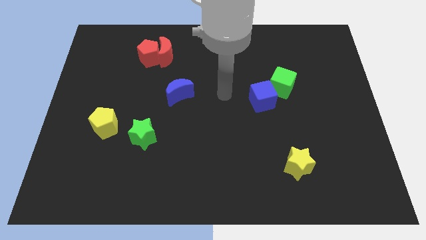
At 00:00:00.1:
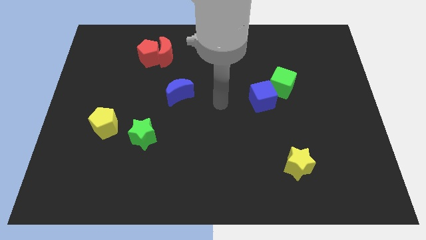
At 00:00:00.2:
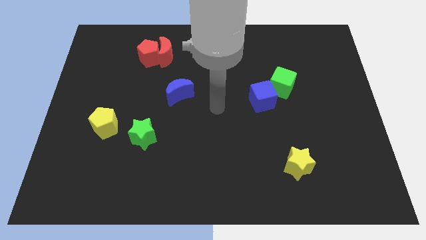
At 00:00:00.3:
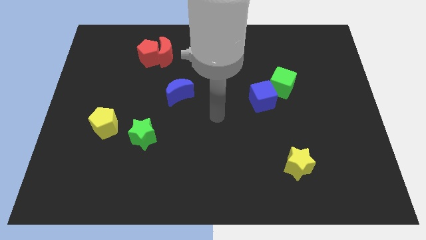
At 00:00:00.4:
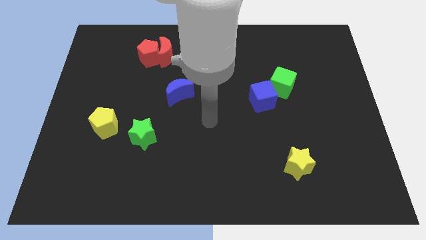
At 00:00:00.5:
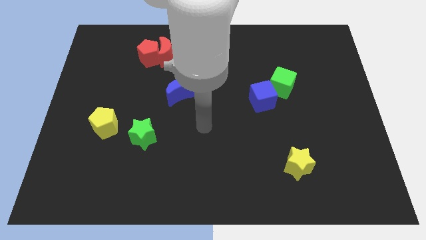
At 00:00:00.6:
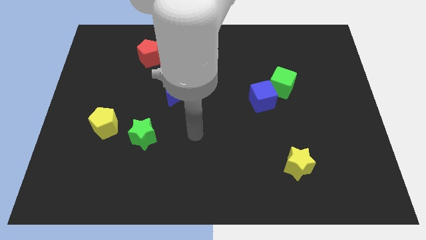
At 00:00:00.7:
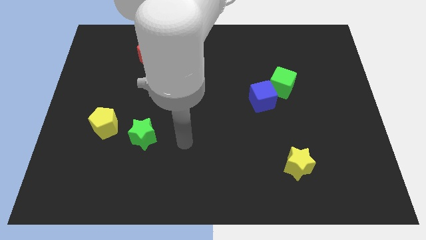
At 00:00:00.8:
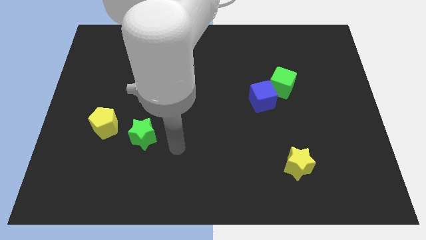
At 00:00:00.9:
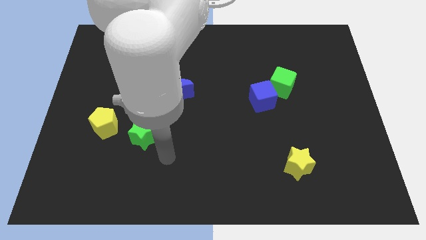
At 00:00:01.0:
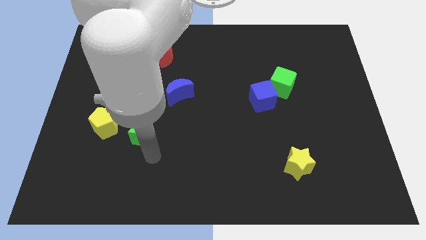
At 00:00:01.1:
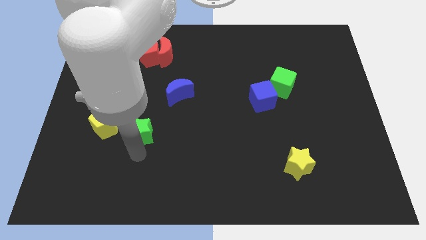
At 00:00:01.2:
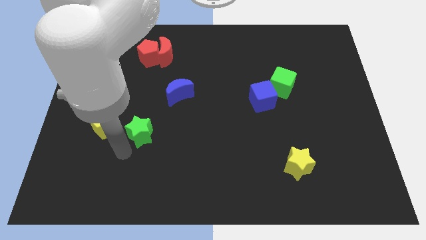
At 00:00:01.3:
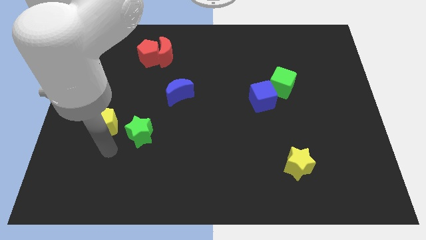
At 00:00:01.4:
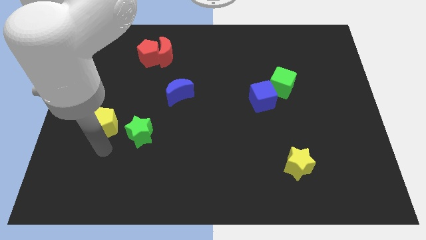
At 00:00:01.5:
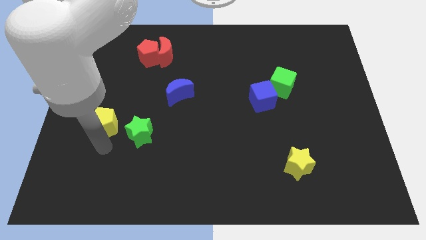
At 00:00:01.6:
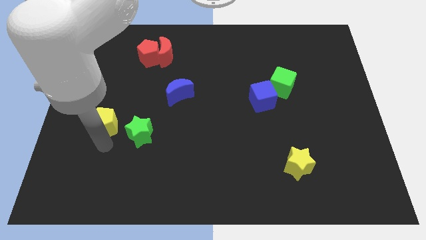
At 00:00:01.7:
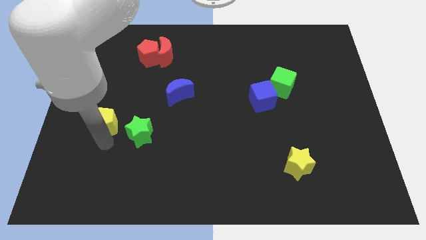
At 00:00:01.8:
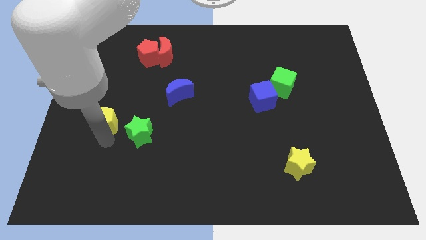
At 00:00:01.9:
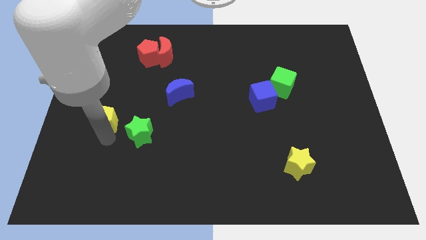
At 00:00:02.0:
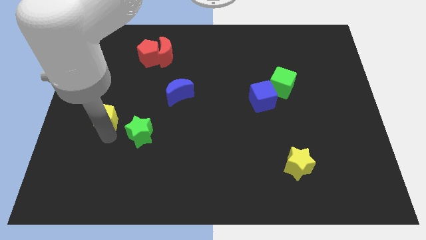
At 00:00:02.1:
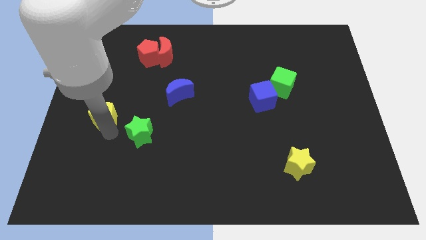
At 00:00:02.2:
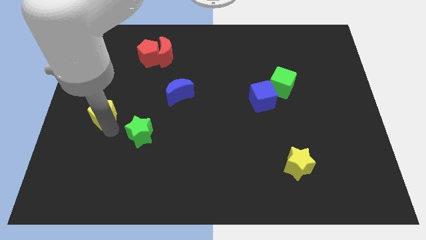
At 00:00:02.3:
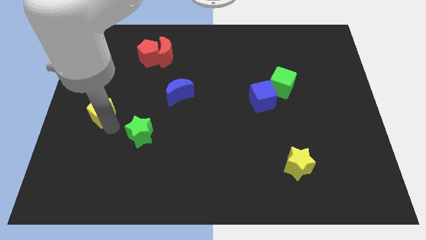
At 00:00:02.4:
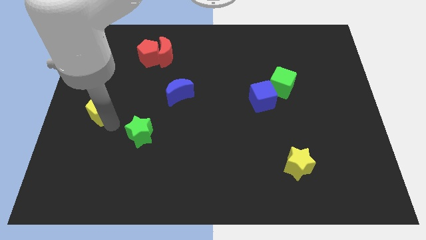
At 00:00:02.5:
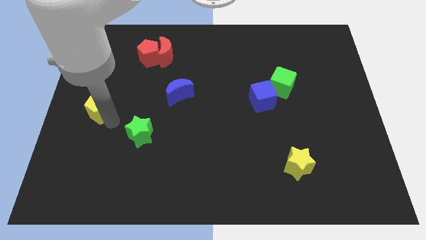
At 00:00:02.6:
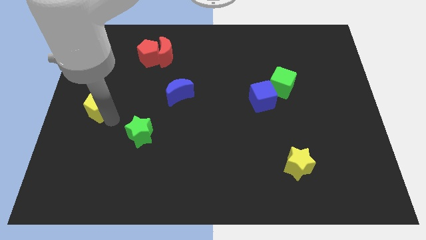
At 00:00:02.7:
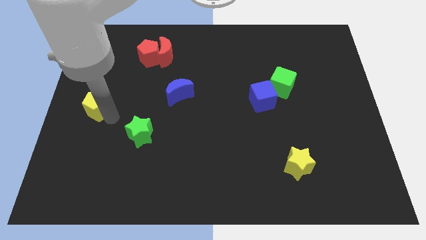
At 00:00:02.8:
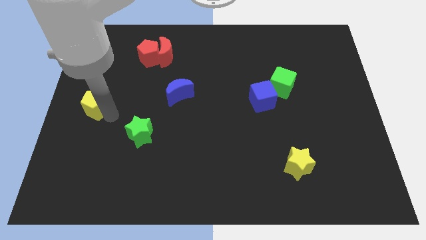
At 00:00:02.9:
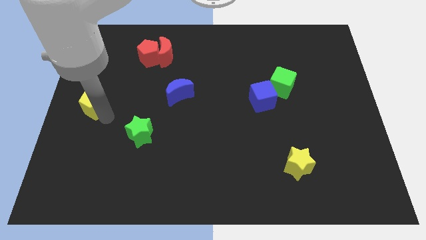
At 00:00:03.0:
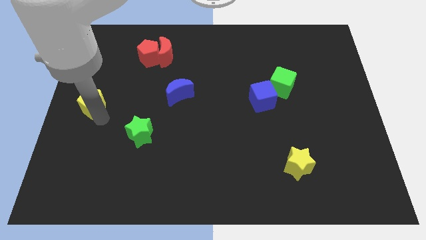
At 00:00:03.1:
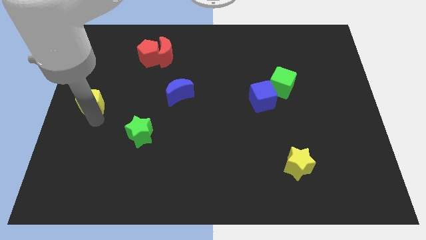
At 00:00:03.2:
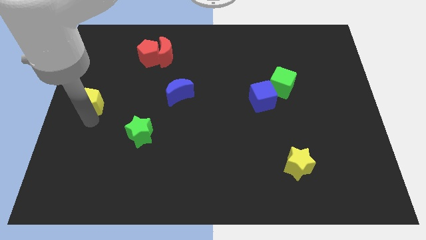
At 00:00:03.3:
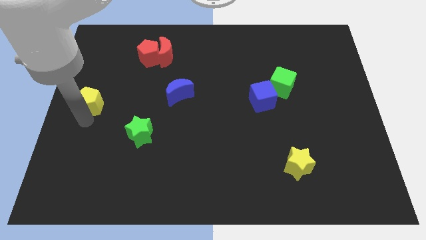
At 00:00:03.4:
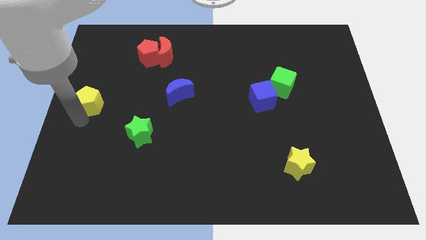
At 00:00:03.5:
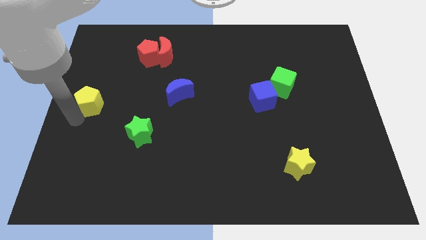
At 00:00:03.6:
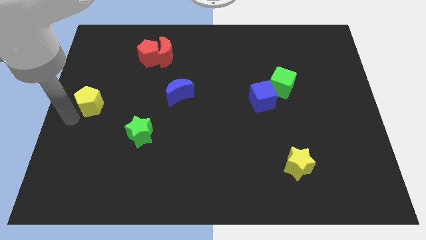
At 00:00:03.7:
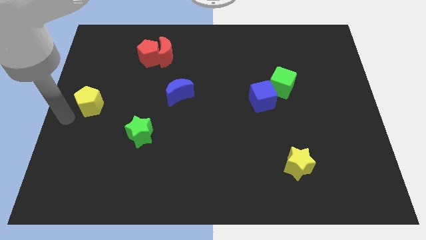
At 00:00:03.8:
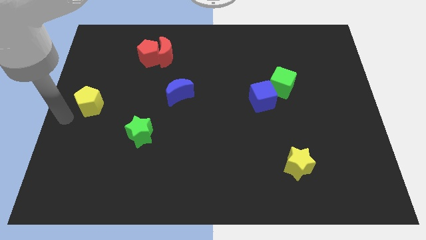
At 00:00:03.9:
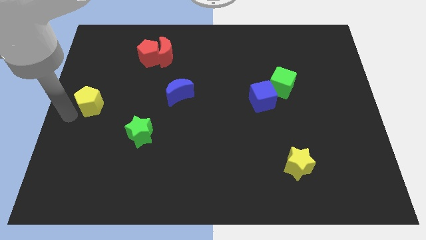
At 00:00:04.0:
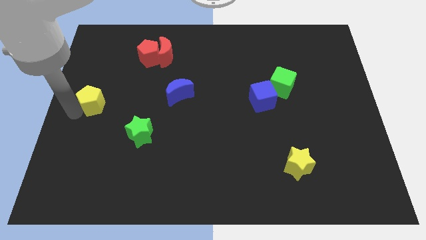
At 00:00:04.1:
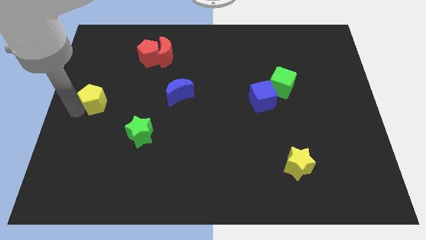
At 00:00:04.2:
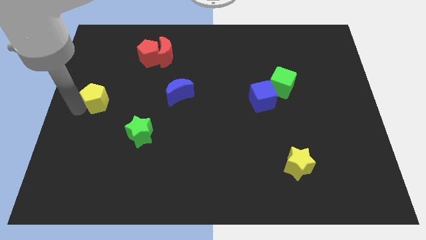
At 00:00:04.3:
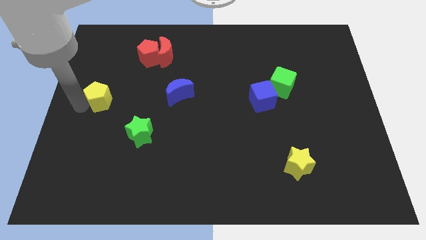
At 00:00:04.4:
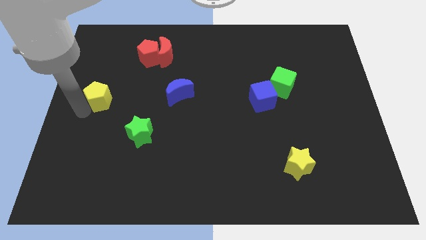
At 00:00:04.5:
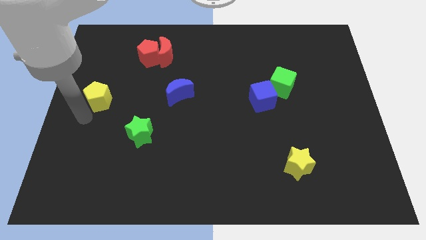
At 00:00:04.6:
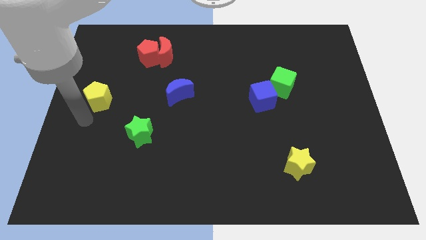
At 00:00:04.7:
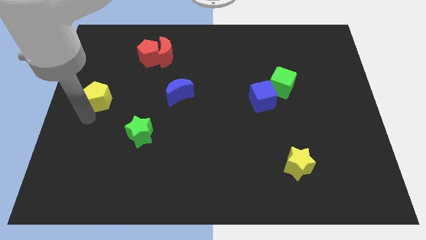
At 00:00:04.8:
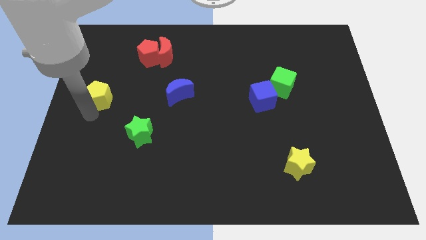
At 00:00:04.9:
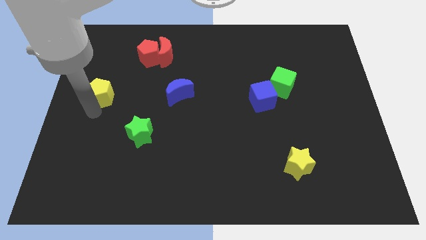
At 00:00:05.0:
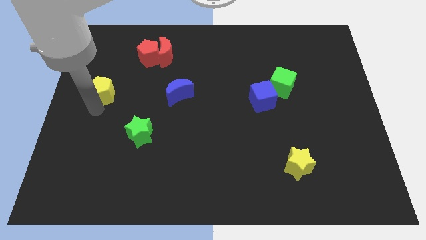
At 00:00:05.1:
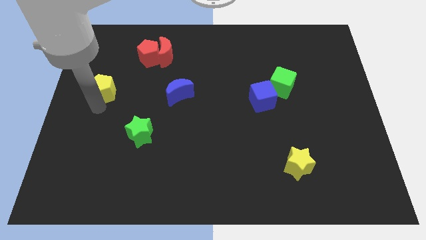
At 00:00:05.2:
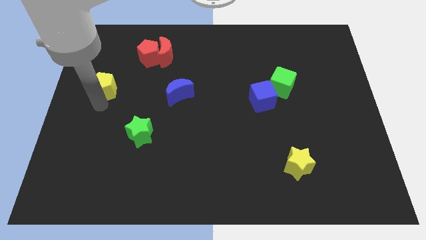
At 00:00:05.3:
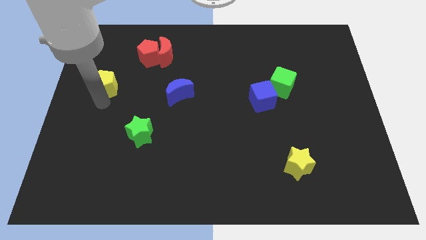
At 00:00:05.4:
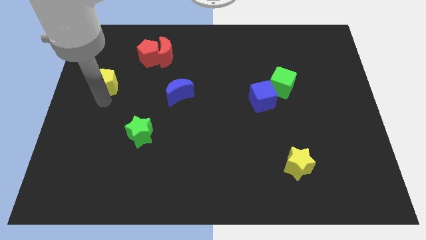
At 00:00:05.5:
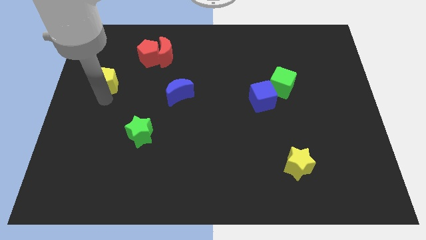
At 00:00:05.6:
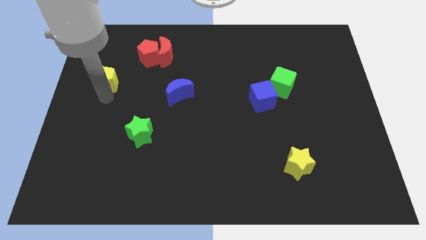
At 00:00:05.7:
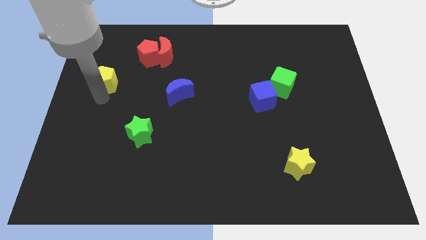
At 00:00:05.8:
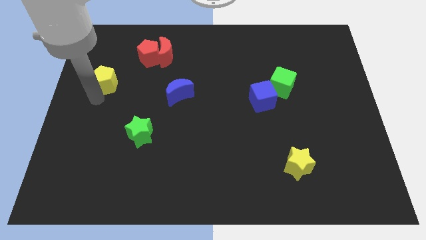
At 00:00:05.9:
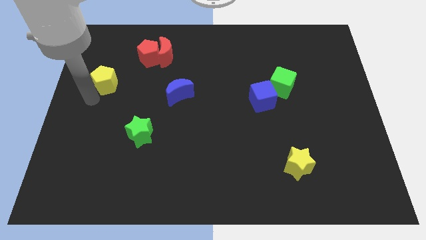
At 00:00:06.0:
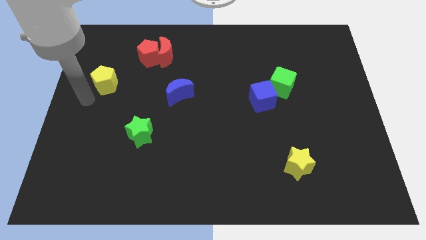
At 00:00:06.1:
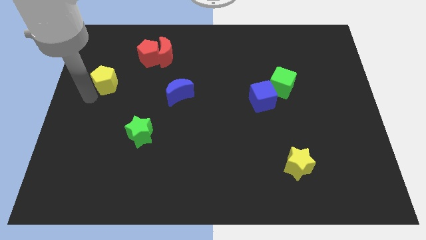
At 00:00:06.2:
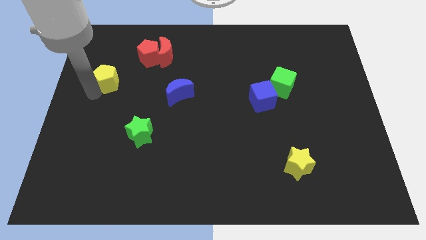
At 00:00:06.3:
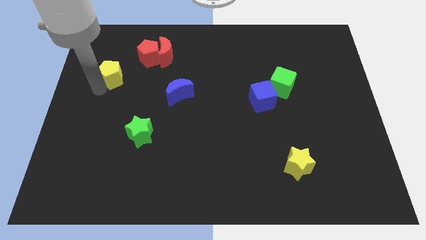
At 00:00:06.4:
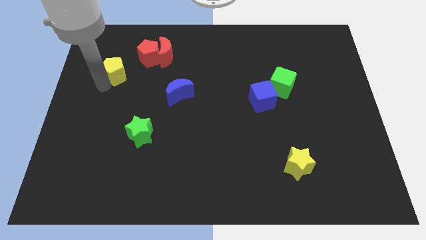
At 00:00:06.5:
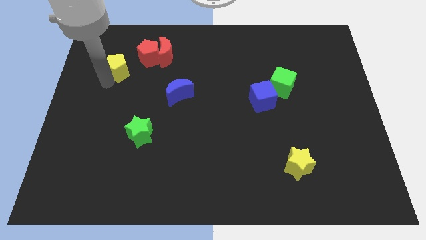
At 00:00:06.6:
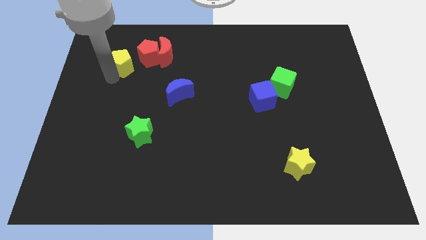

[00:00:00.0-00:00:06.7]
put the yellow pentagon to the left side of the red moon

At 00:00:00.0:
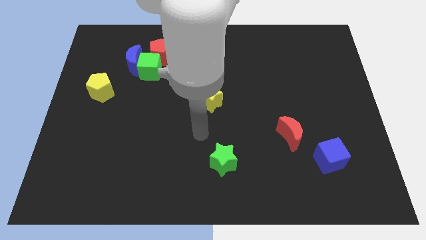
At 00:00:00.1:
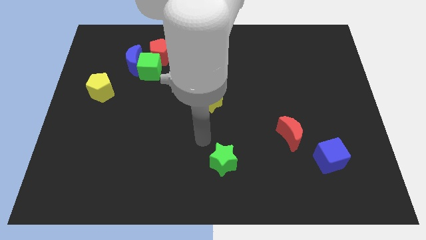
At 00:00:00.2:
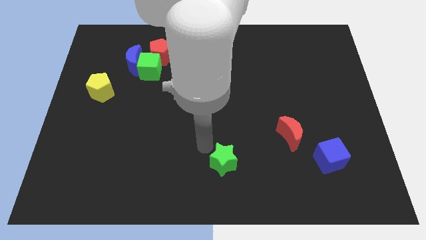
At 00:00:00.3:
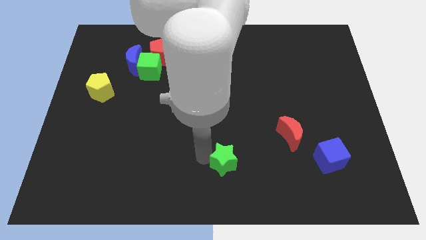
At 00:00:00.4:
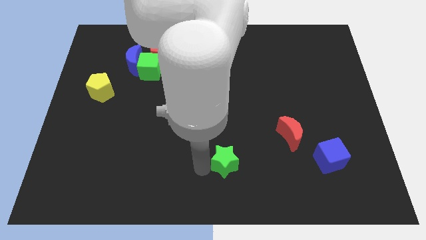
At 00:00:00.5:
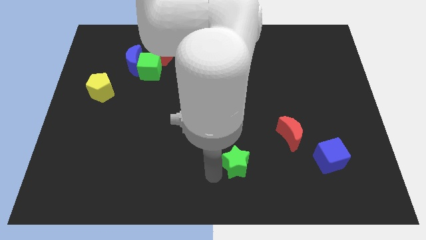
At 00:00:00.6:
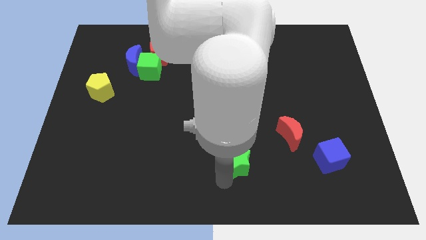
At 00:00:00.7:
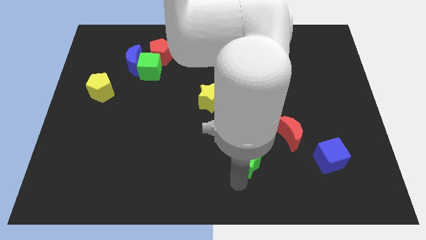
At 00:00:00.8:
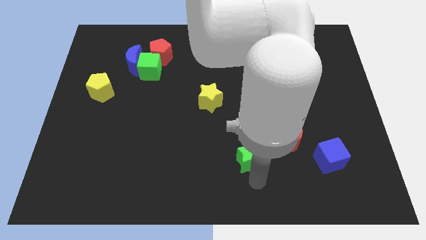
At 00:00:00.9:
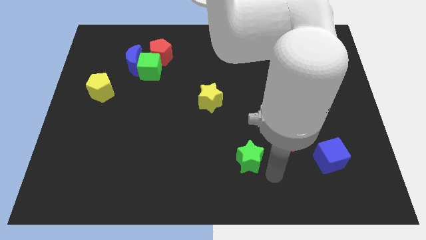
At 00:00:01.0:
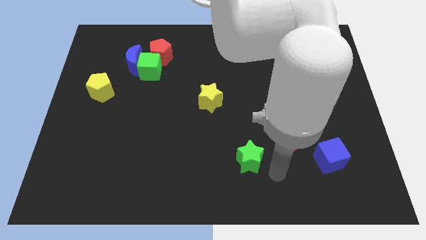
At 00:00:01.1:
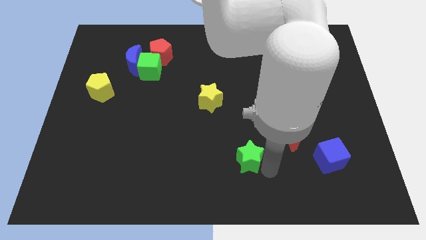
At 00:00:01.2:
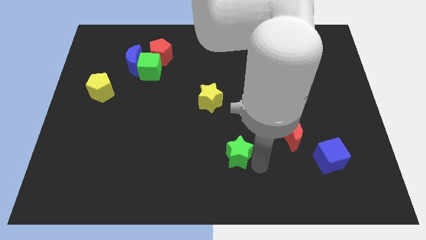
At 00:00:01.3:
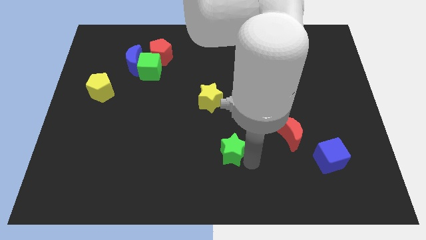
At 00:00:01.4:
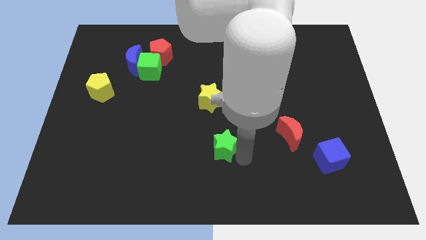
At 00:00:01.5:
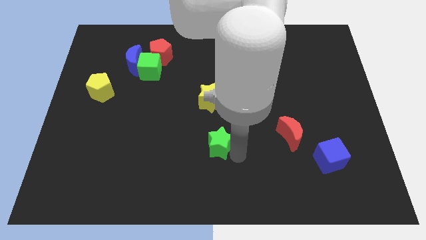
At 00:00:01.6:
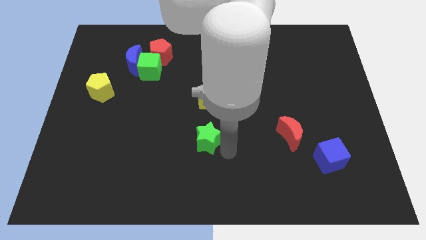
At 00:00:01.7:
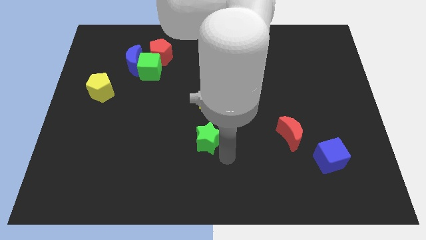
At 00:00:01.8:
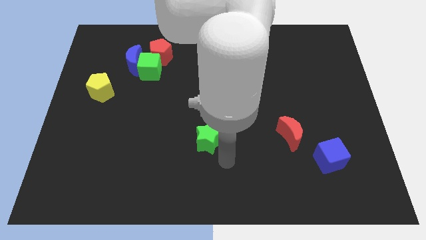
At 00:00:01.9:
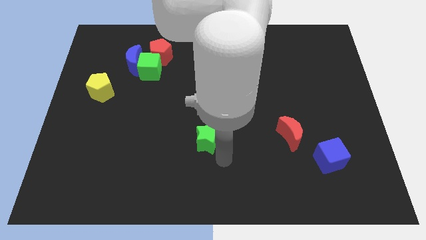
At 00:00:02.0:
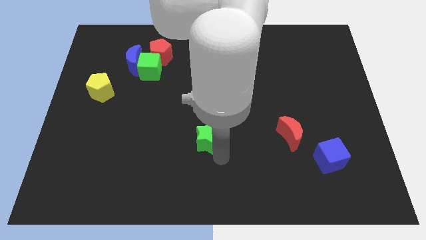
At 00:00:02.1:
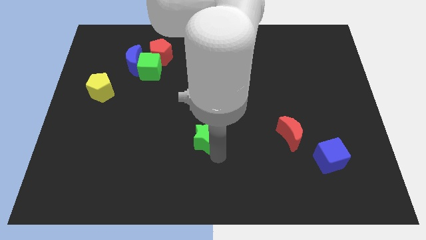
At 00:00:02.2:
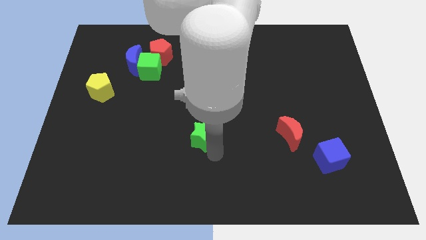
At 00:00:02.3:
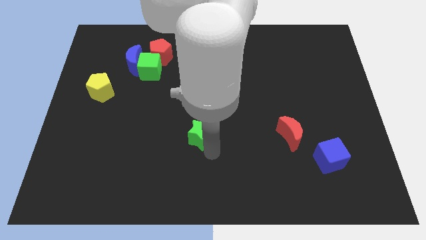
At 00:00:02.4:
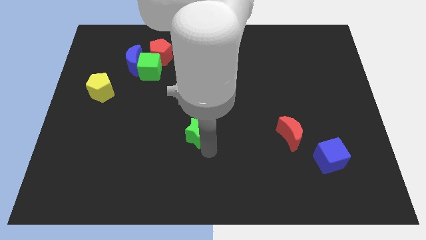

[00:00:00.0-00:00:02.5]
move the green star diagonally down and to the left of the yellow star
